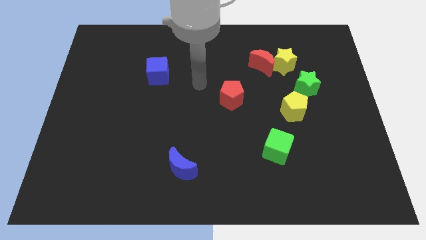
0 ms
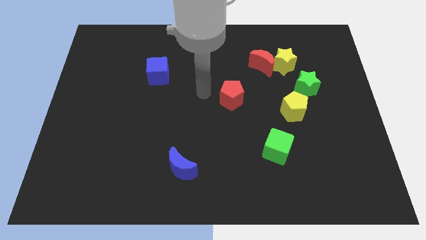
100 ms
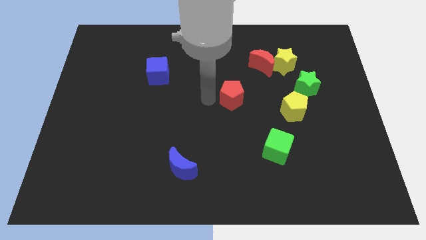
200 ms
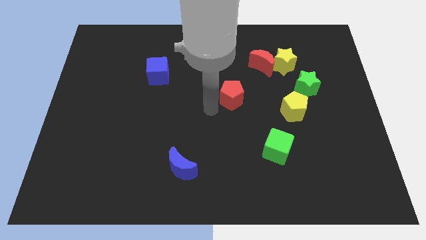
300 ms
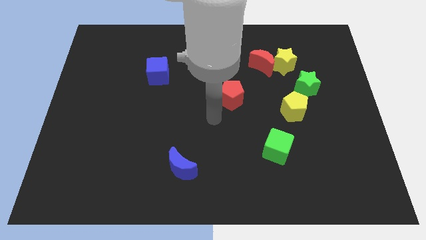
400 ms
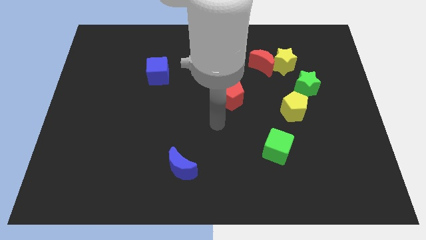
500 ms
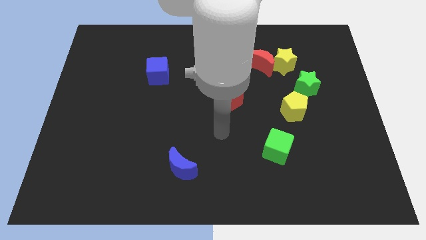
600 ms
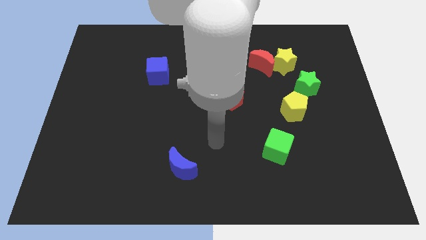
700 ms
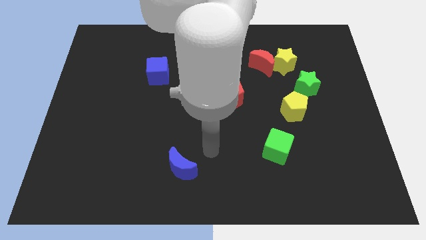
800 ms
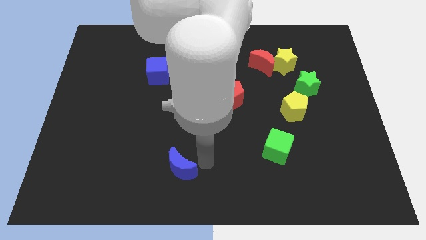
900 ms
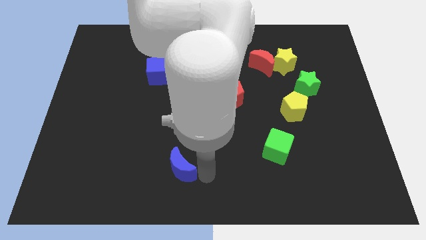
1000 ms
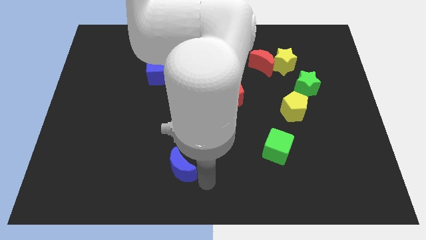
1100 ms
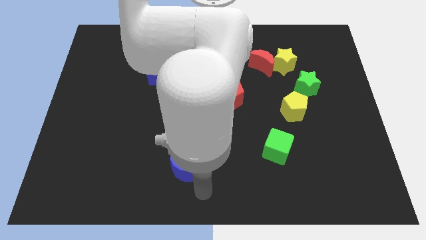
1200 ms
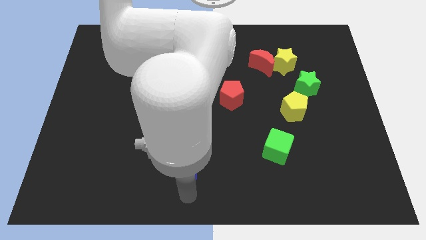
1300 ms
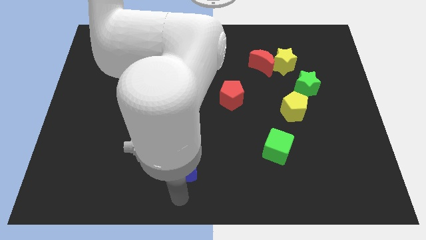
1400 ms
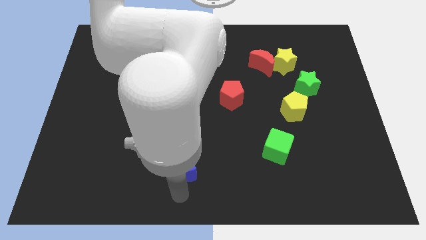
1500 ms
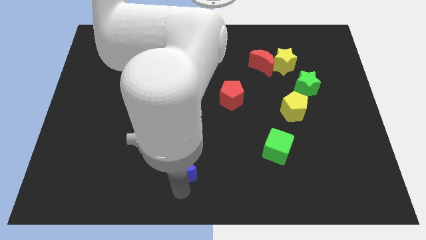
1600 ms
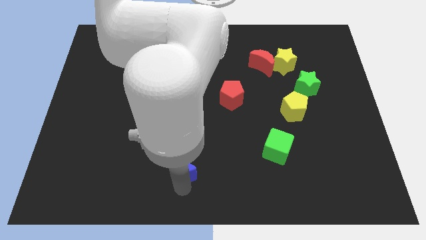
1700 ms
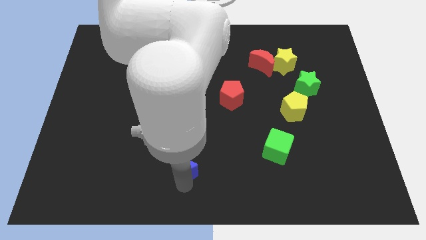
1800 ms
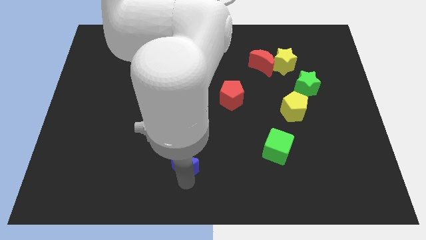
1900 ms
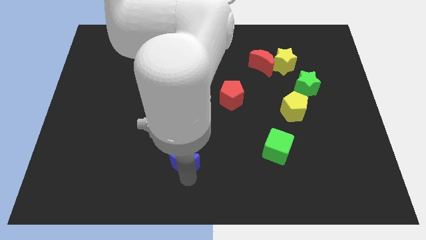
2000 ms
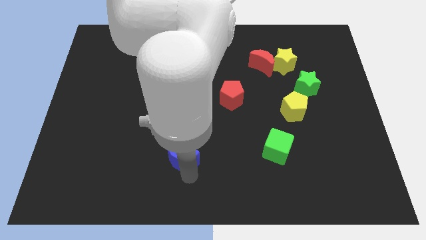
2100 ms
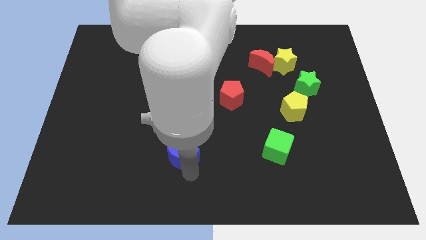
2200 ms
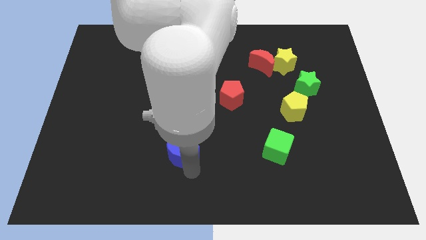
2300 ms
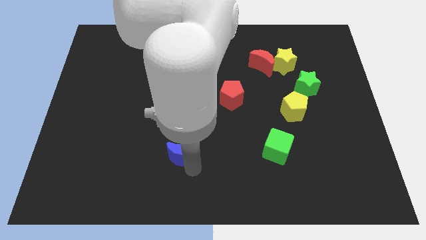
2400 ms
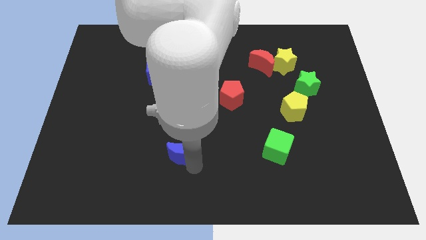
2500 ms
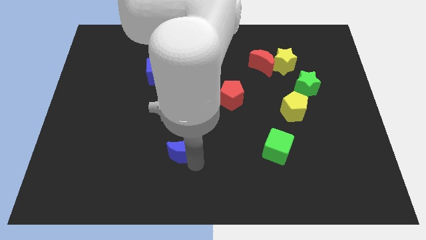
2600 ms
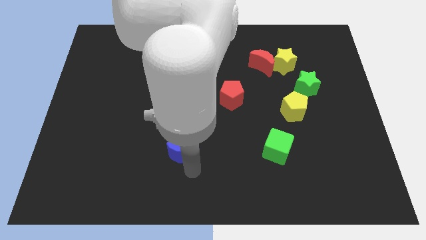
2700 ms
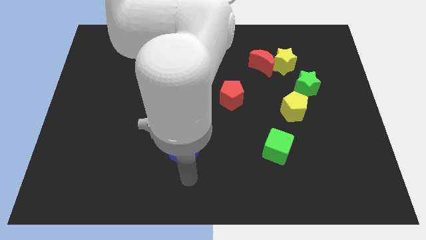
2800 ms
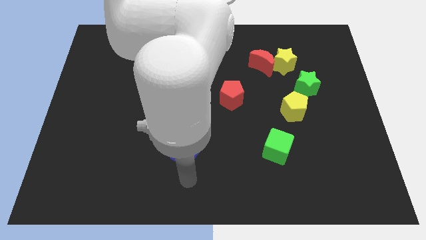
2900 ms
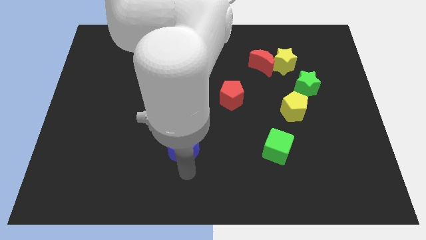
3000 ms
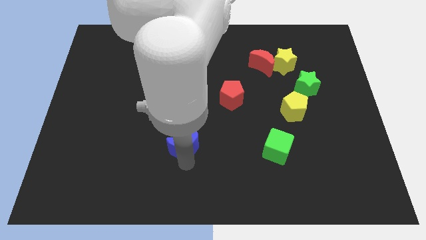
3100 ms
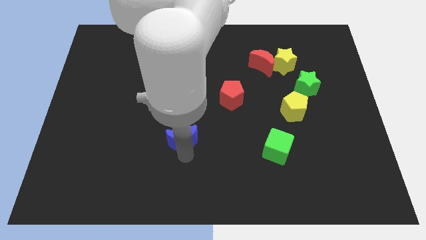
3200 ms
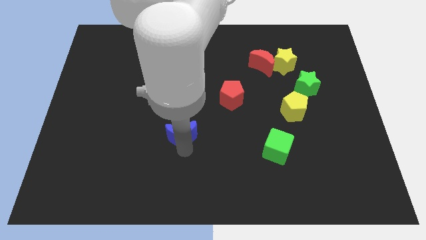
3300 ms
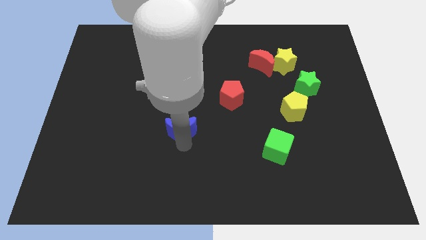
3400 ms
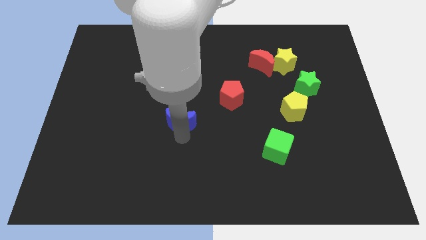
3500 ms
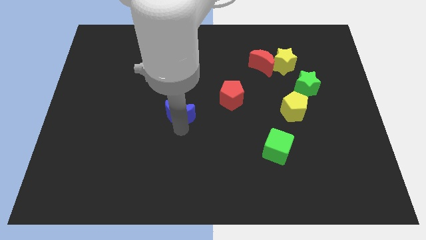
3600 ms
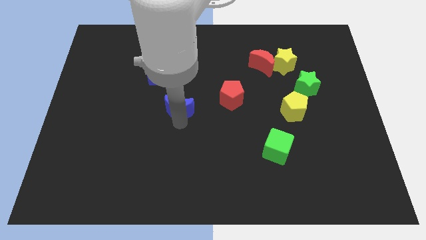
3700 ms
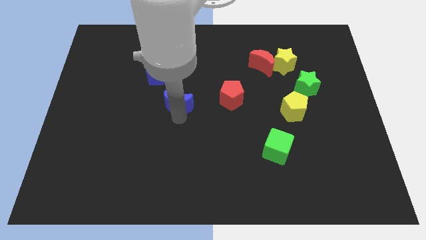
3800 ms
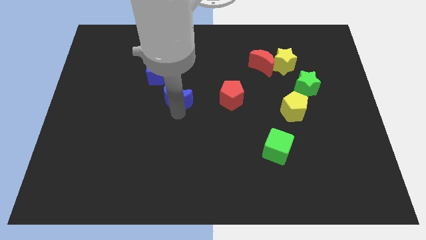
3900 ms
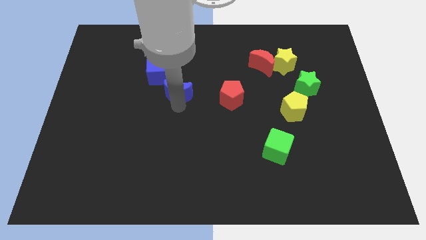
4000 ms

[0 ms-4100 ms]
slide the blue moon up

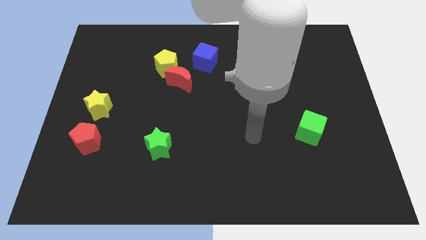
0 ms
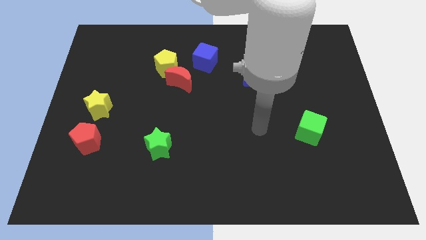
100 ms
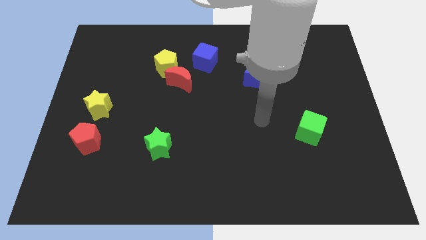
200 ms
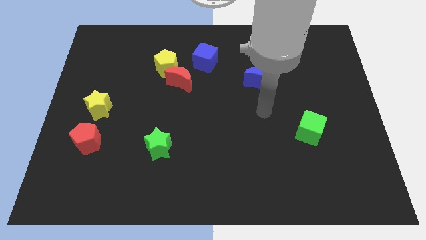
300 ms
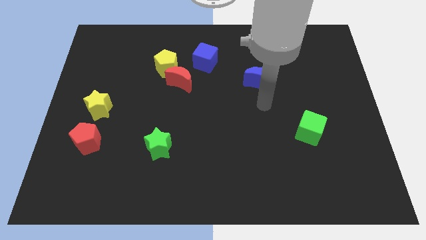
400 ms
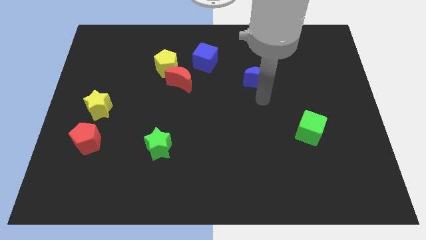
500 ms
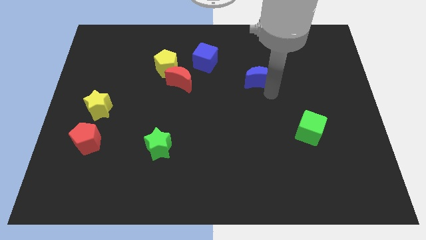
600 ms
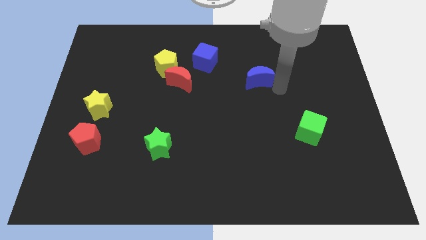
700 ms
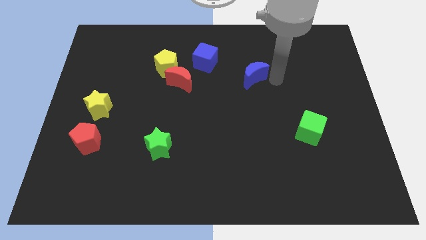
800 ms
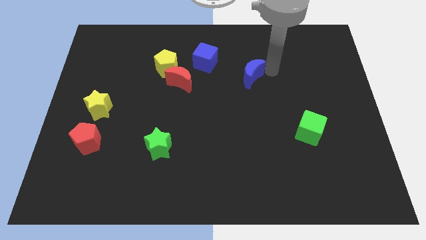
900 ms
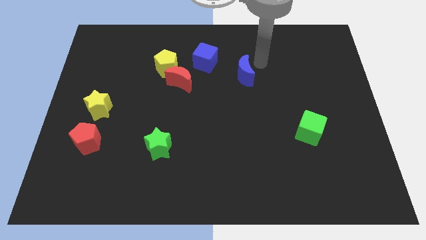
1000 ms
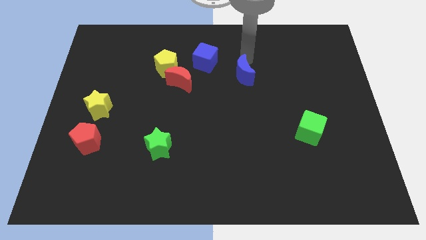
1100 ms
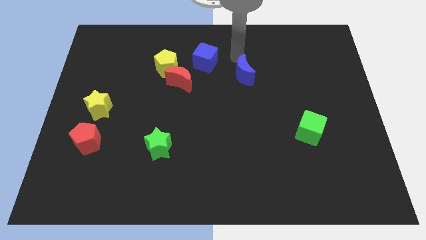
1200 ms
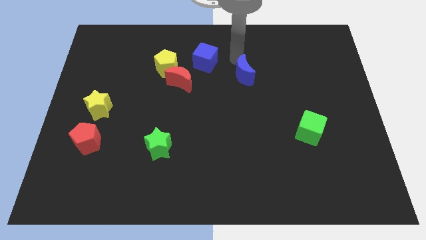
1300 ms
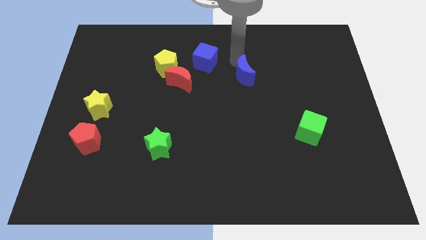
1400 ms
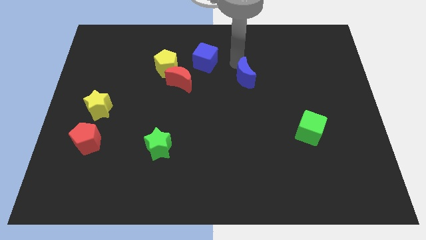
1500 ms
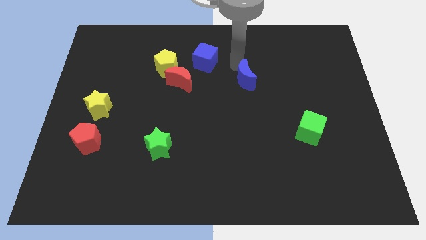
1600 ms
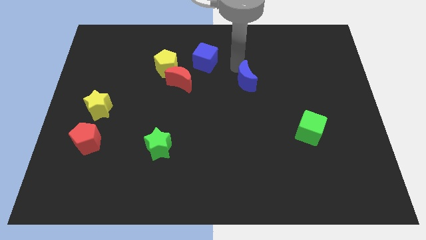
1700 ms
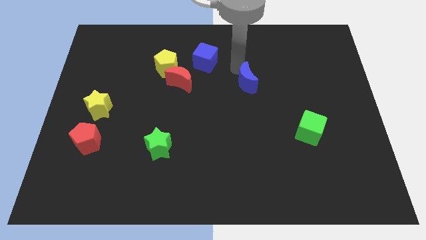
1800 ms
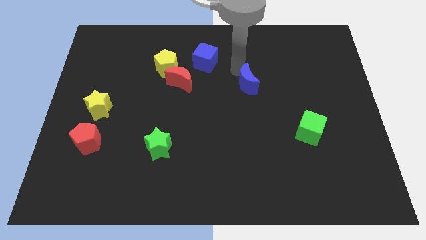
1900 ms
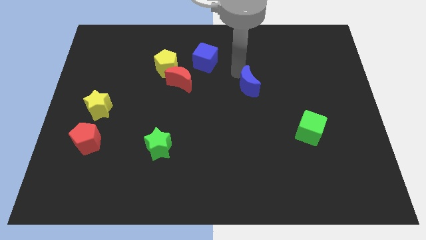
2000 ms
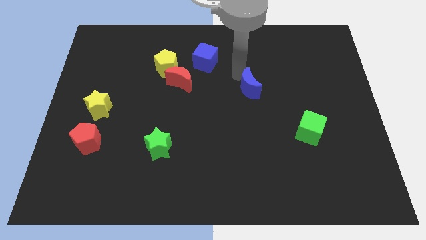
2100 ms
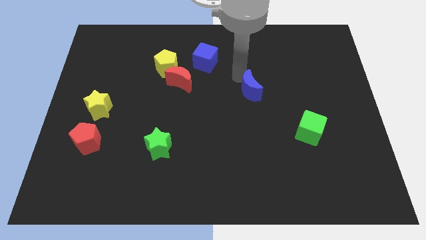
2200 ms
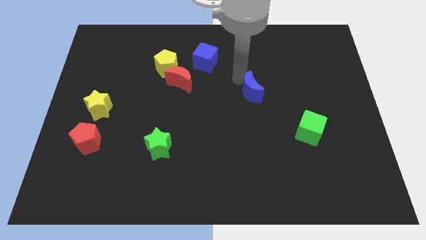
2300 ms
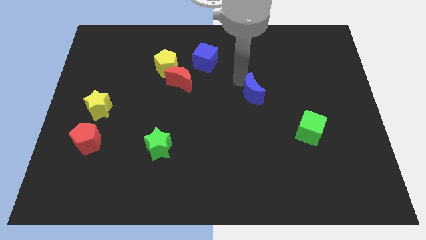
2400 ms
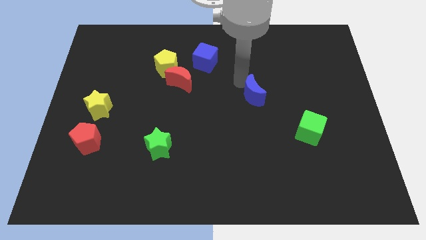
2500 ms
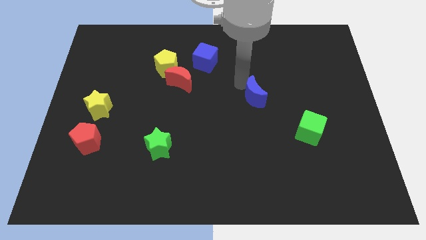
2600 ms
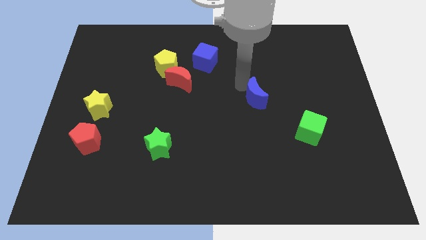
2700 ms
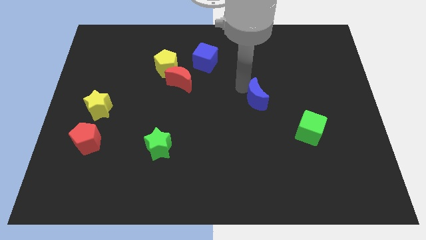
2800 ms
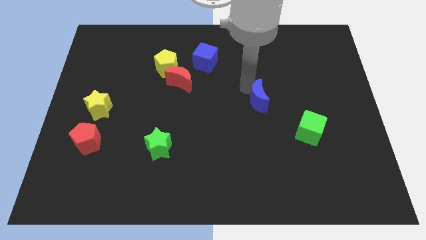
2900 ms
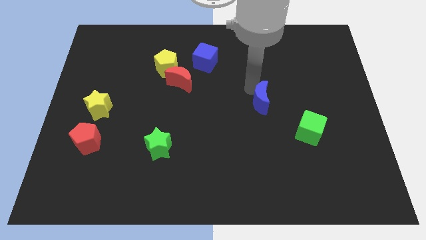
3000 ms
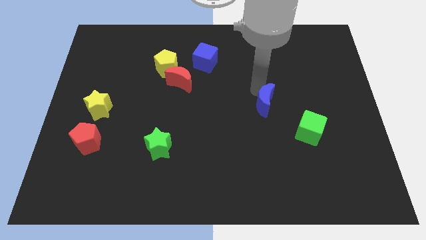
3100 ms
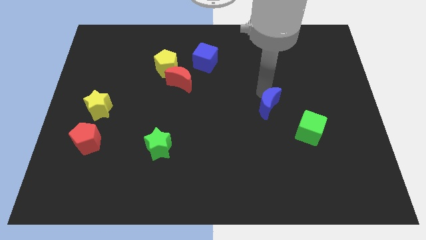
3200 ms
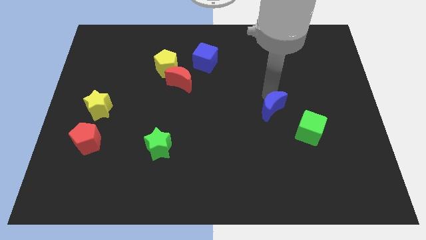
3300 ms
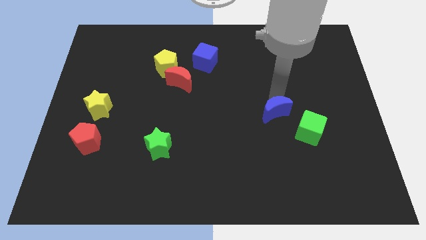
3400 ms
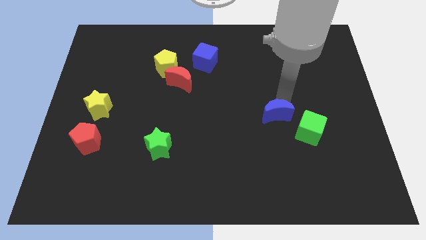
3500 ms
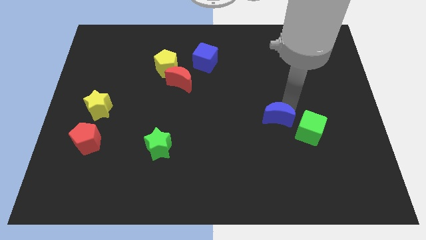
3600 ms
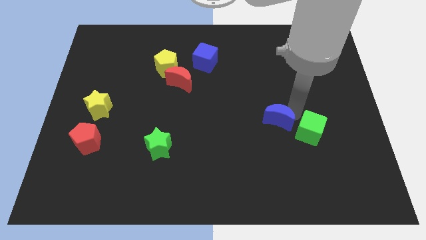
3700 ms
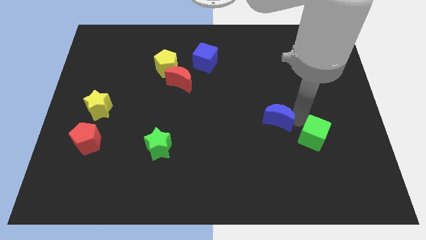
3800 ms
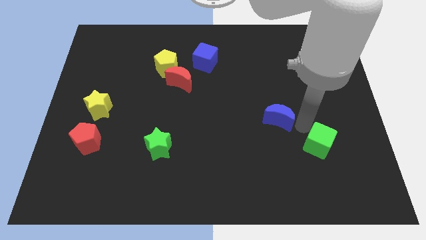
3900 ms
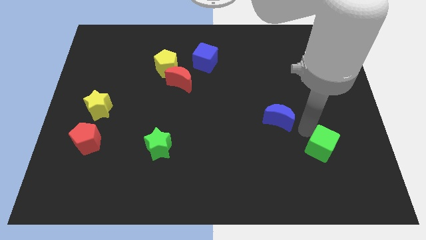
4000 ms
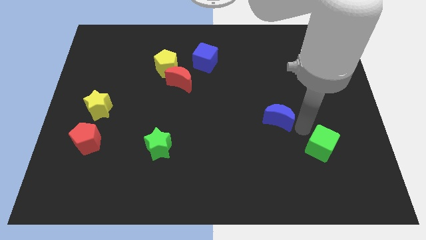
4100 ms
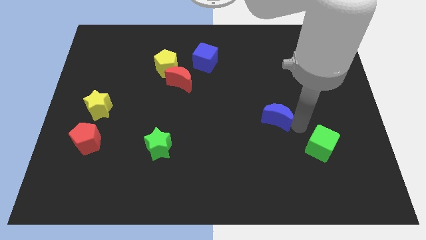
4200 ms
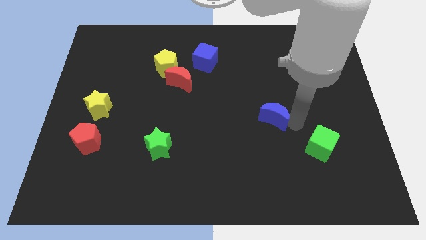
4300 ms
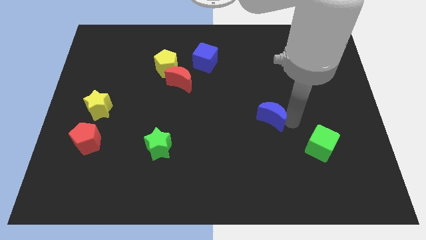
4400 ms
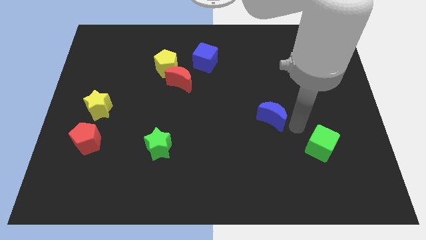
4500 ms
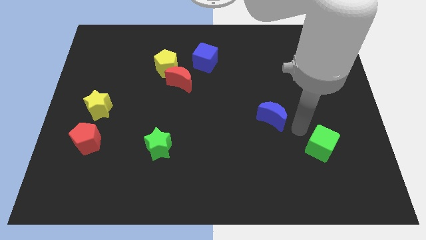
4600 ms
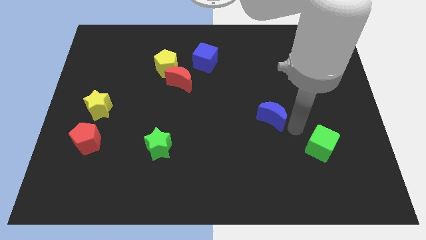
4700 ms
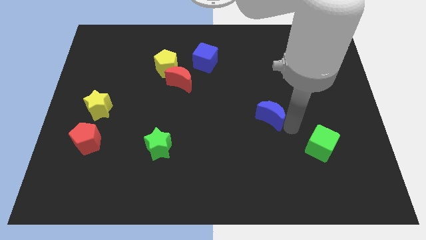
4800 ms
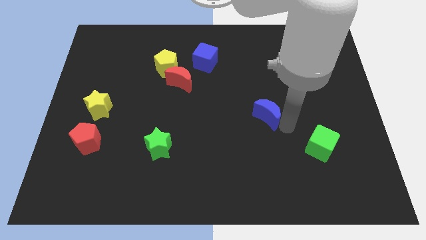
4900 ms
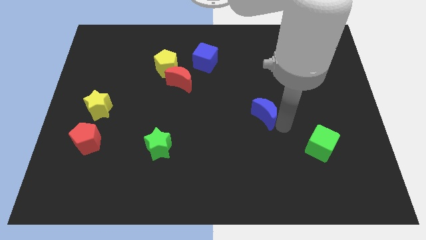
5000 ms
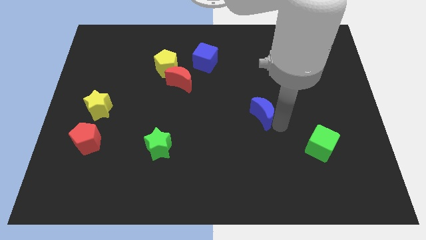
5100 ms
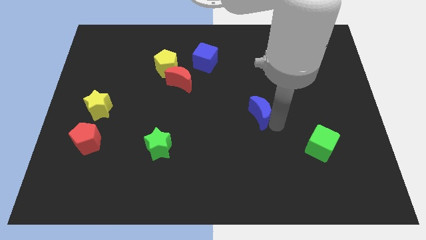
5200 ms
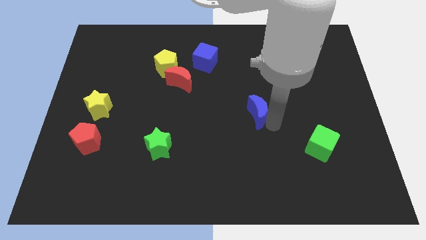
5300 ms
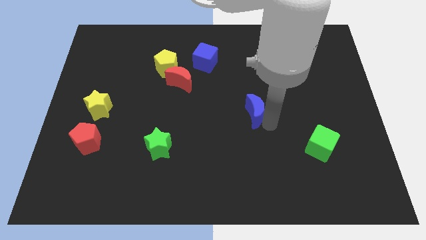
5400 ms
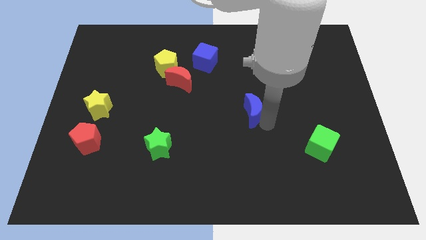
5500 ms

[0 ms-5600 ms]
move the blue moon a bit down and to the left diagonally
